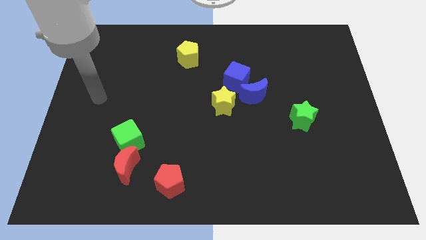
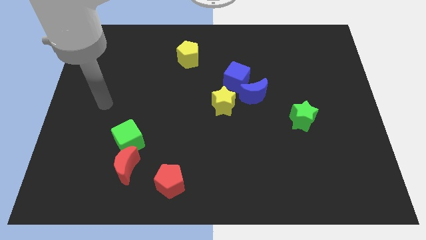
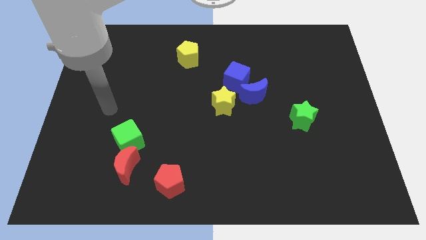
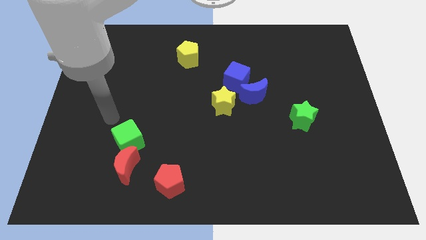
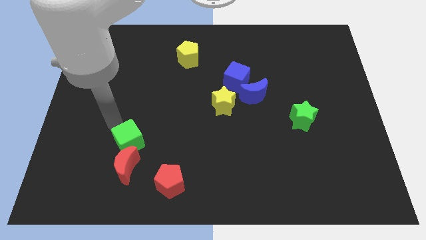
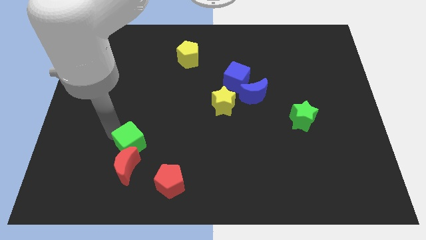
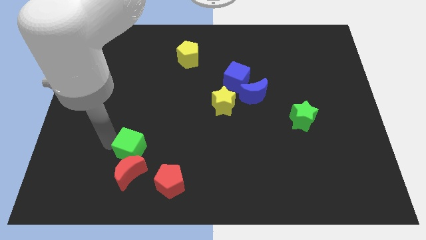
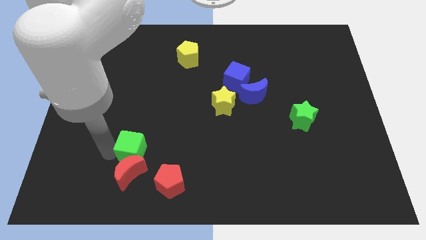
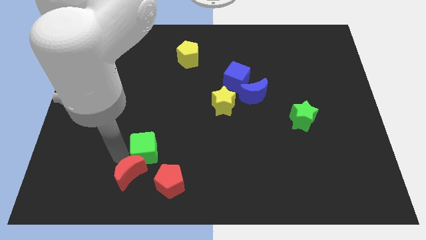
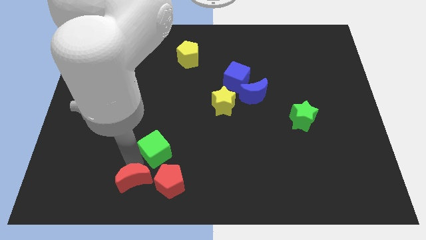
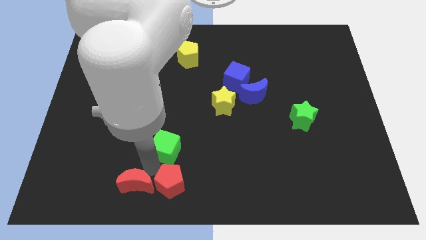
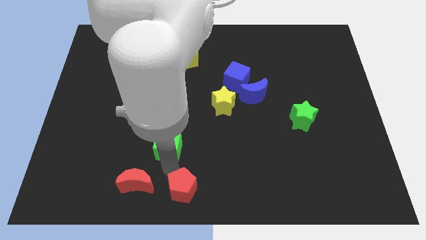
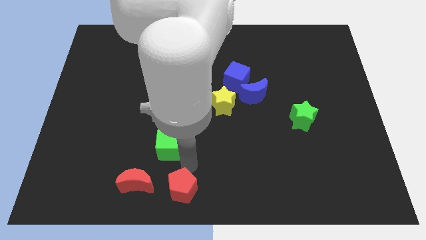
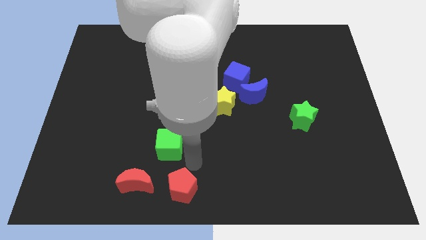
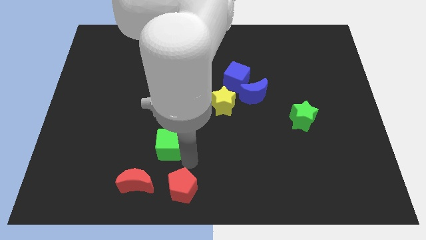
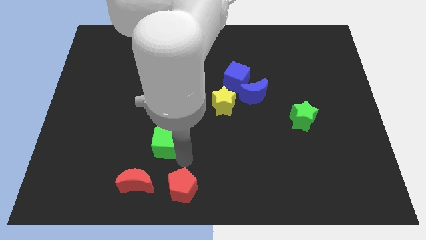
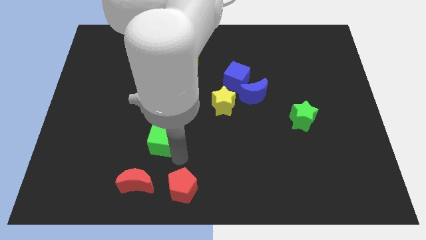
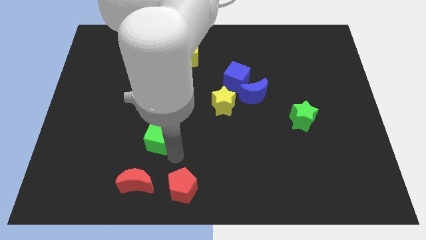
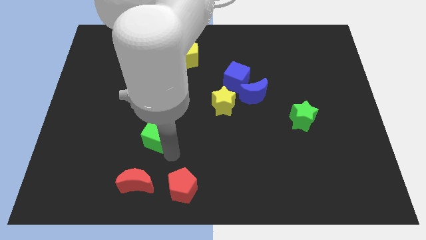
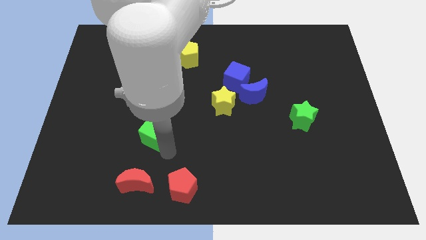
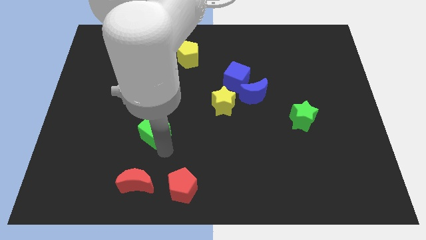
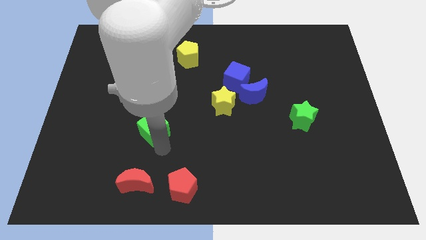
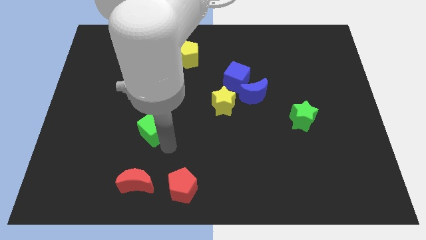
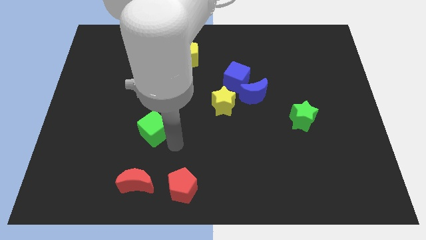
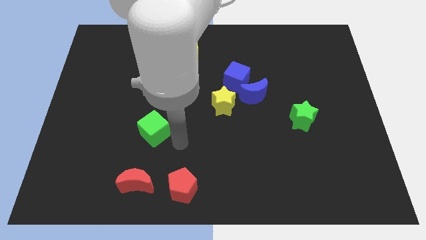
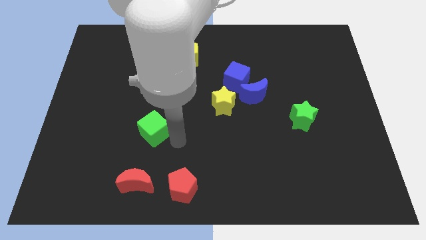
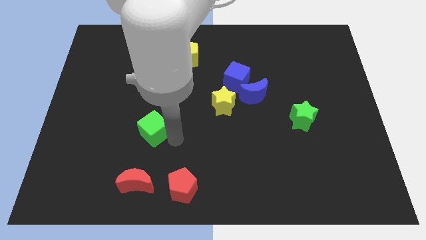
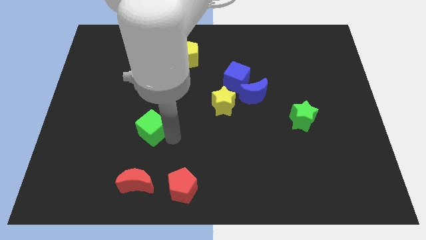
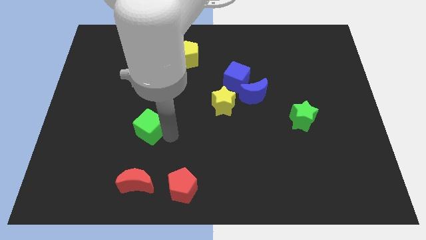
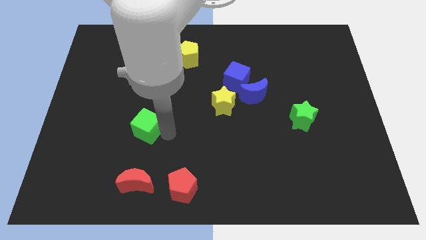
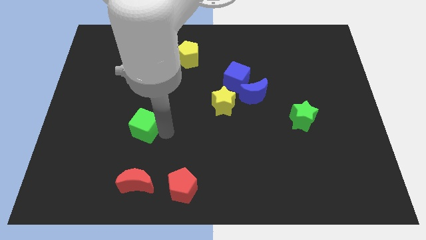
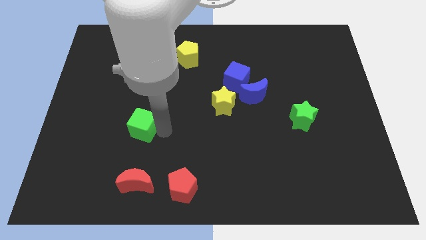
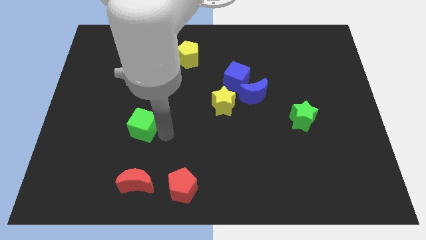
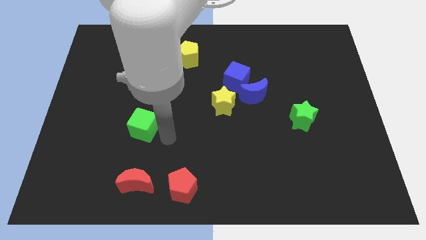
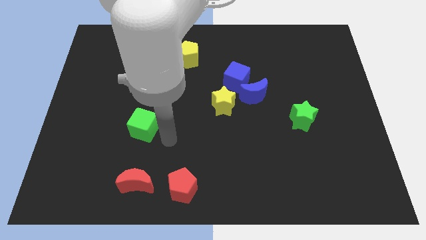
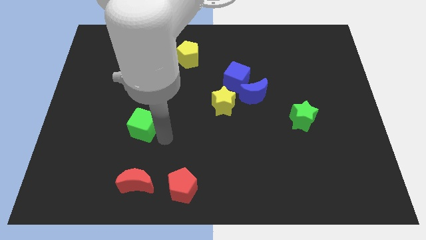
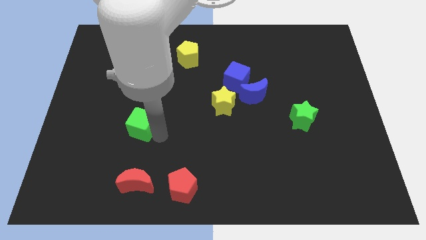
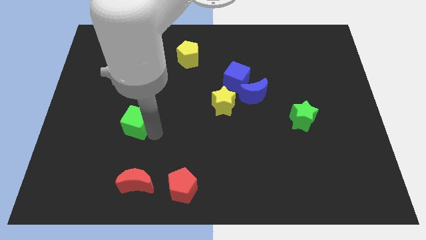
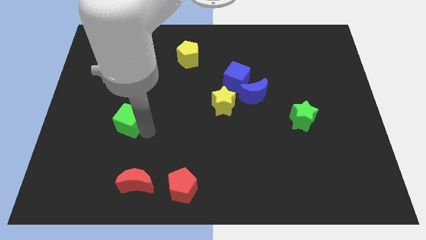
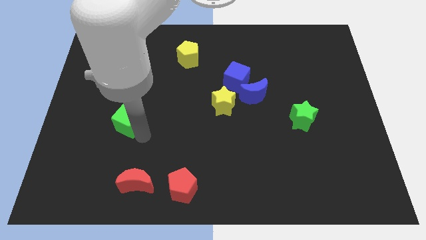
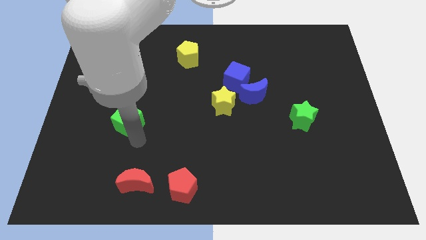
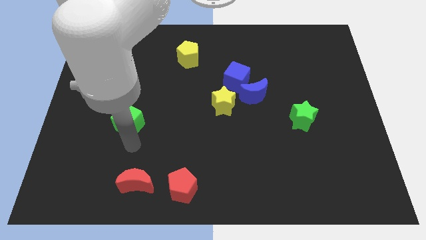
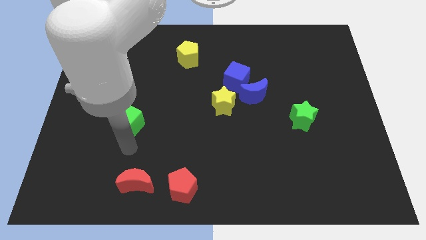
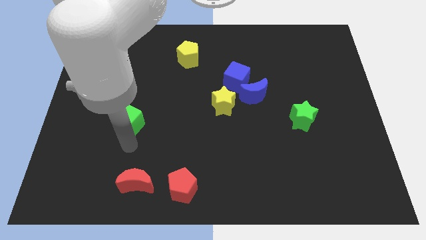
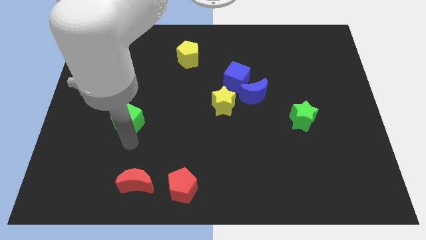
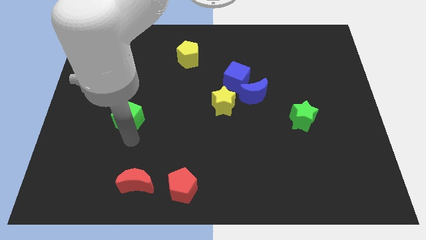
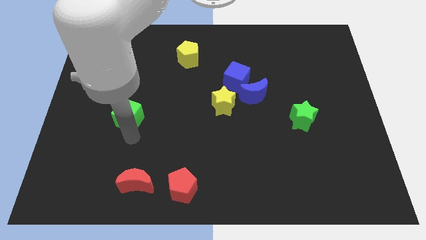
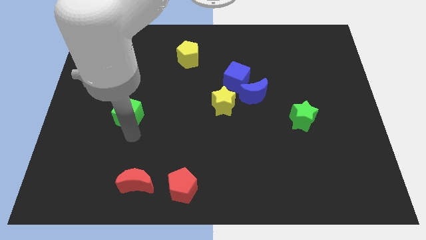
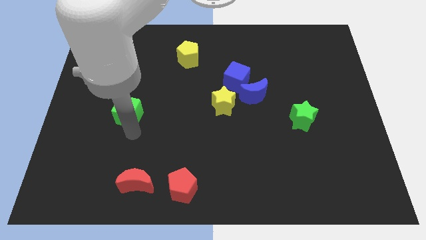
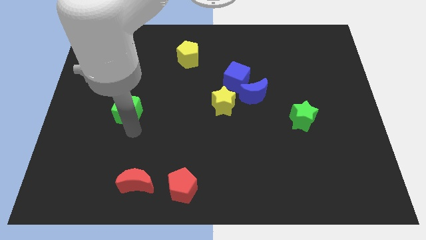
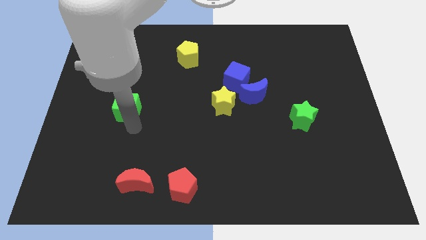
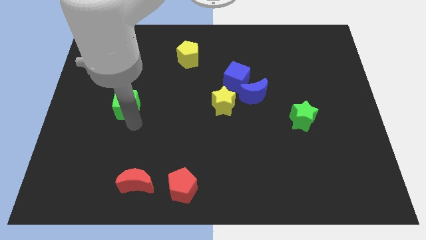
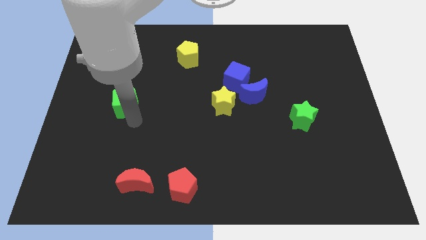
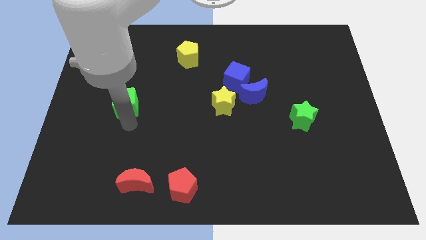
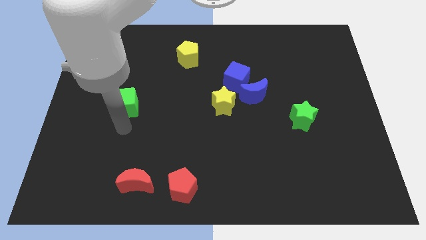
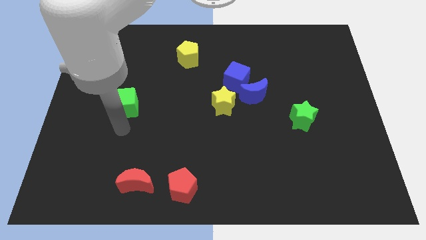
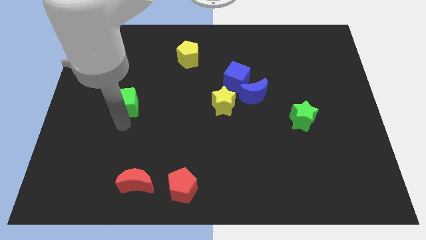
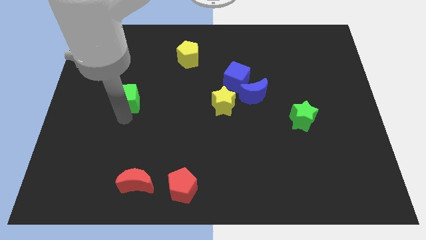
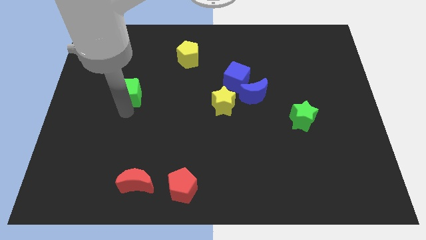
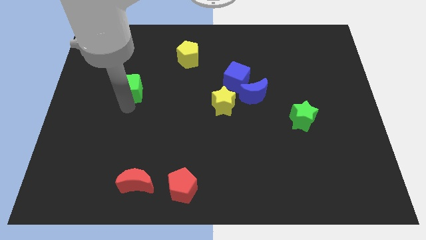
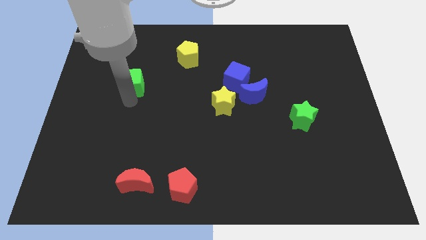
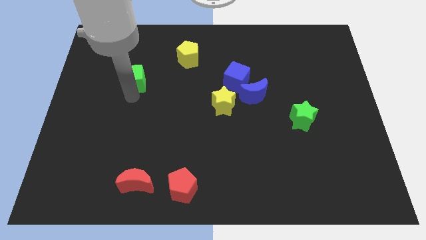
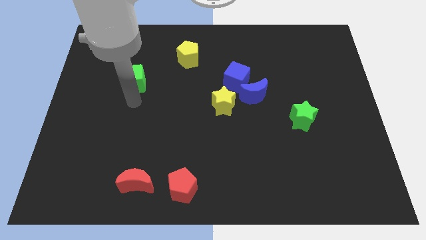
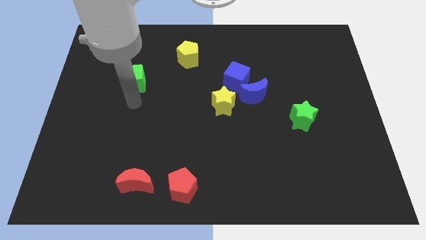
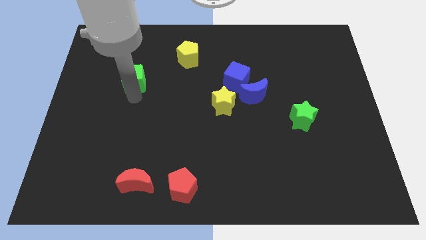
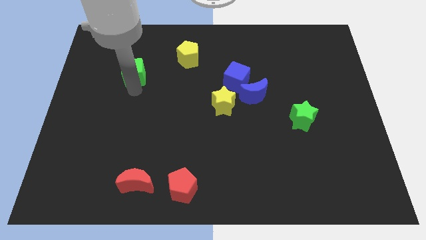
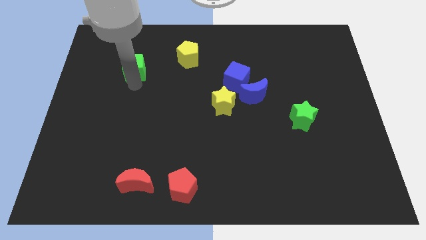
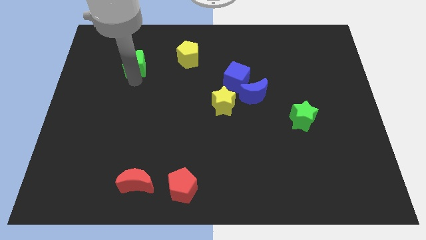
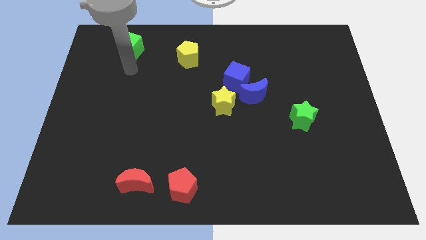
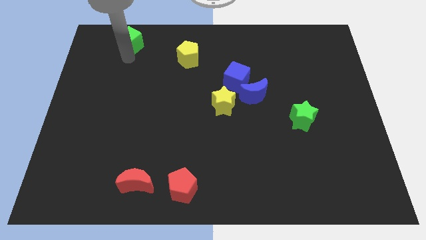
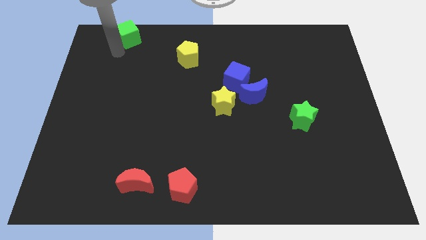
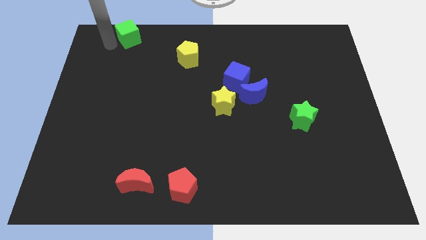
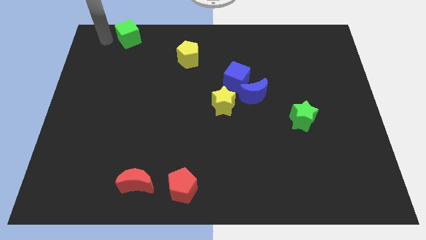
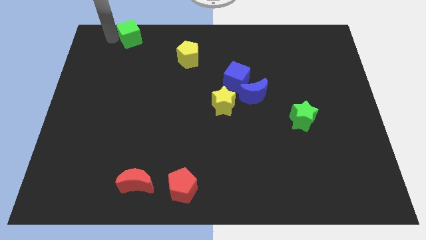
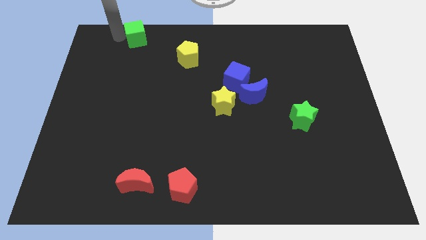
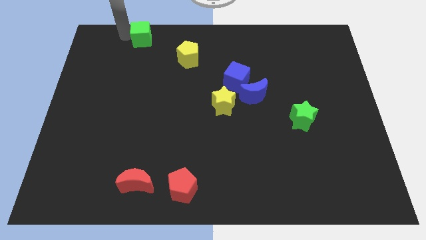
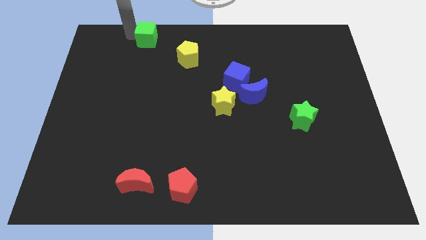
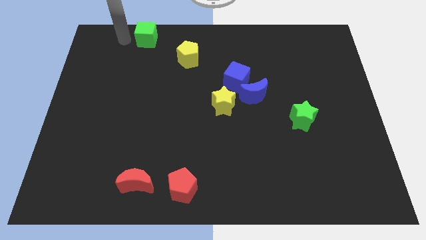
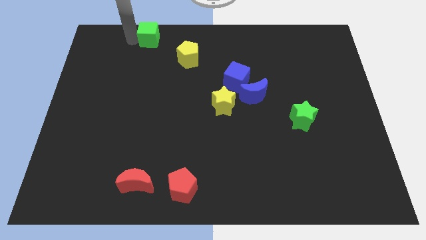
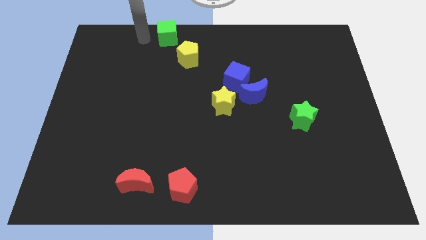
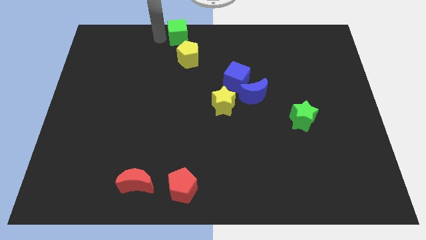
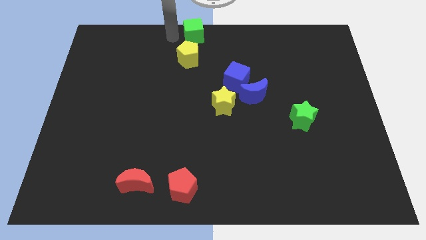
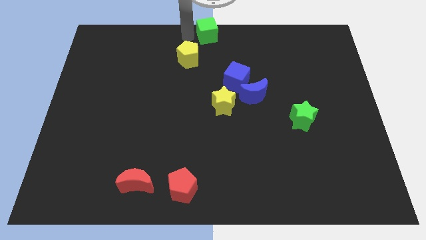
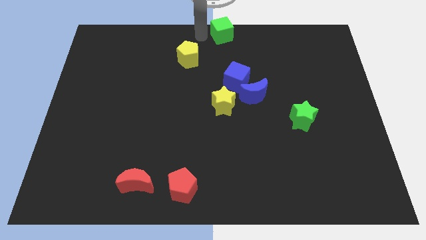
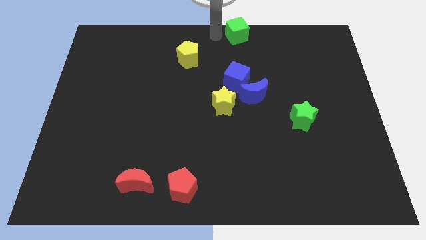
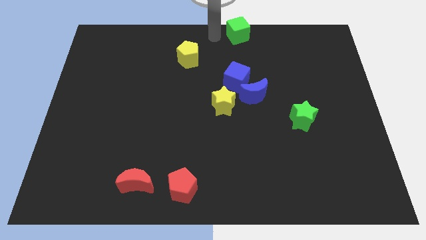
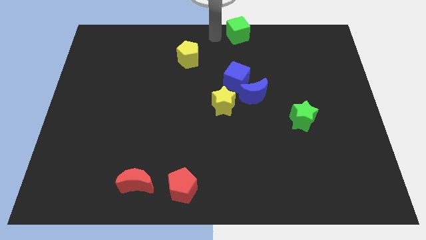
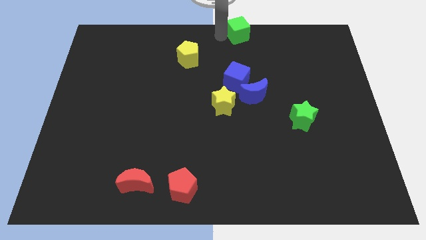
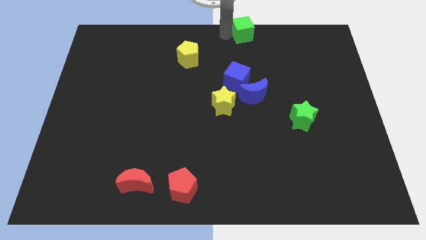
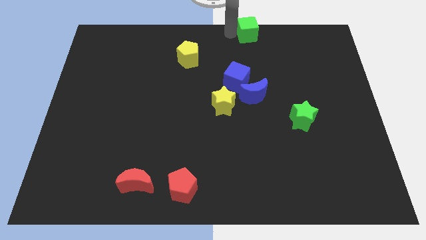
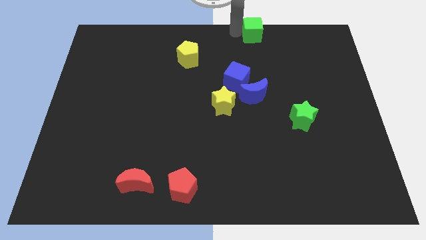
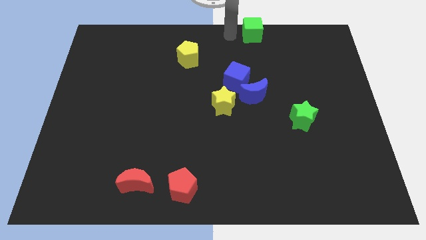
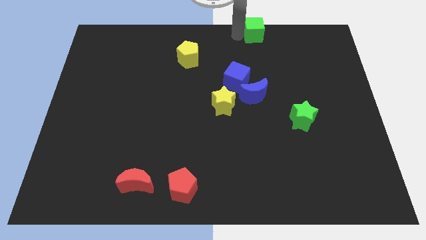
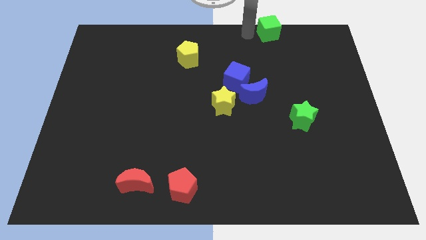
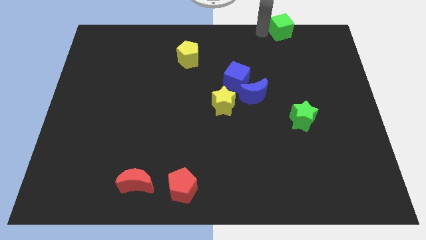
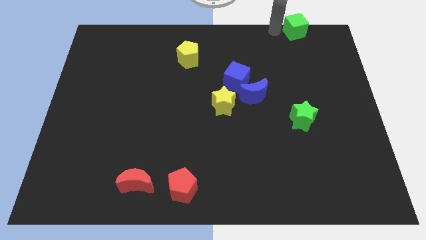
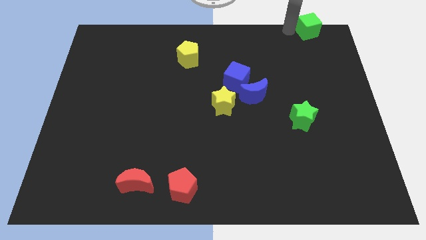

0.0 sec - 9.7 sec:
put the green cube to the top right
